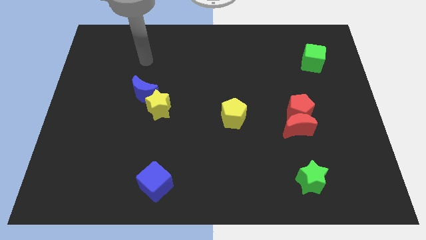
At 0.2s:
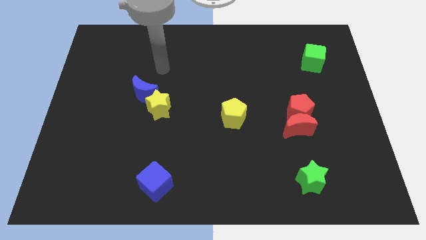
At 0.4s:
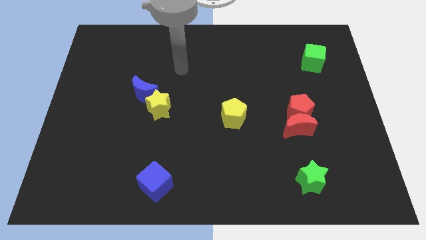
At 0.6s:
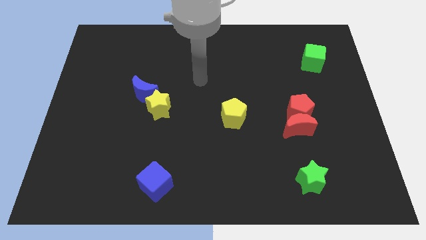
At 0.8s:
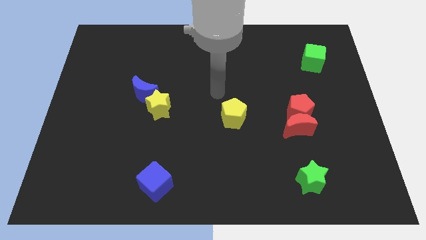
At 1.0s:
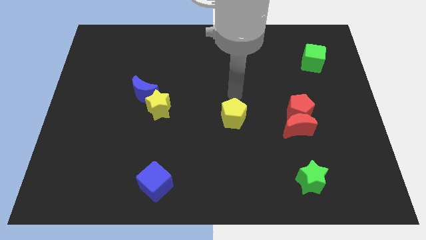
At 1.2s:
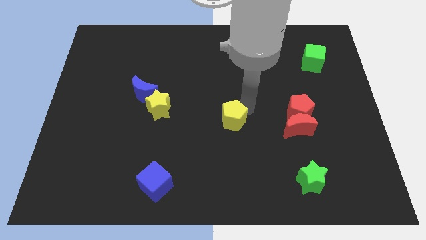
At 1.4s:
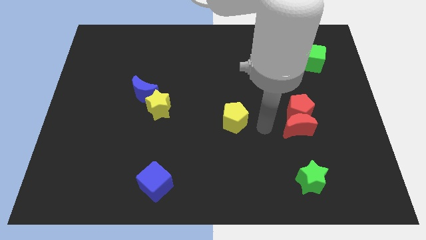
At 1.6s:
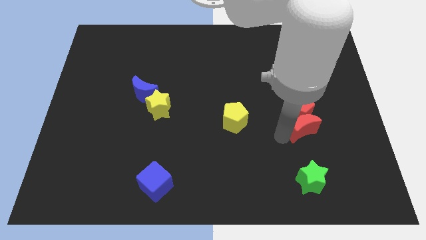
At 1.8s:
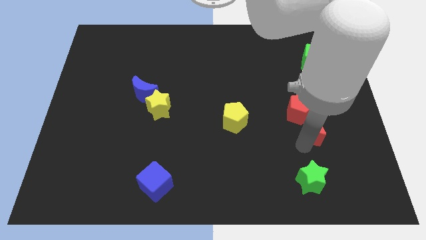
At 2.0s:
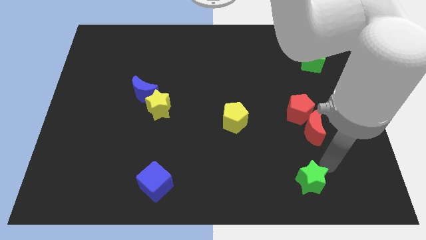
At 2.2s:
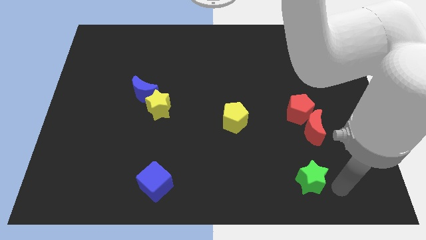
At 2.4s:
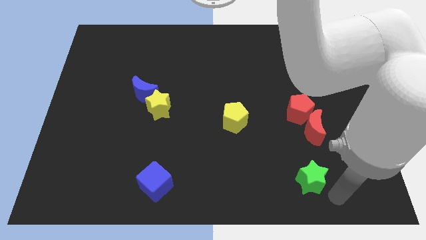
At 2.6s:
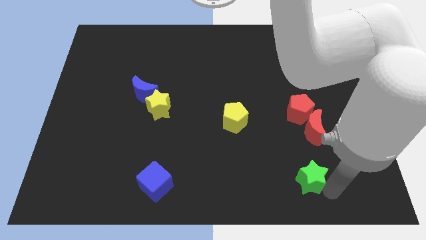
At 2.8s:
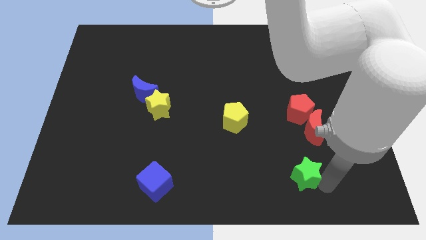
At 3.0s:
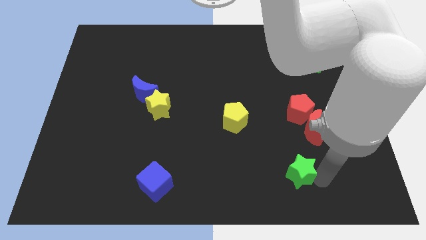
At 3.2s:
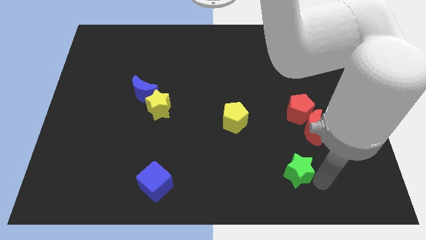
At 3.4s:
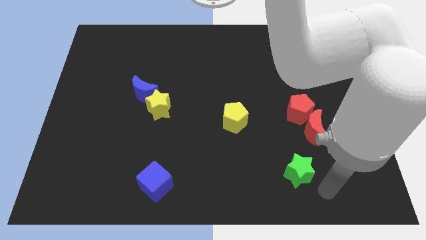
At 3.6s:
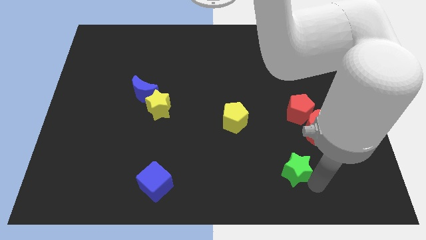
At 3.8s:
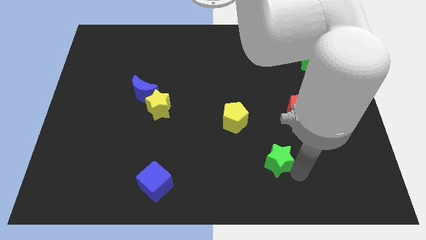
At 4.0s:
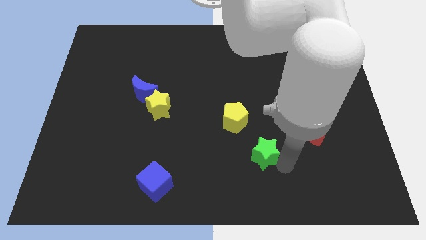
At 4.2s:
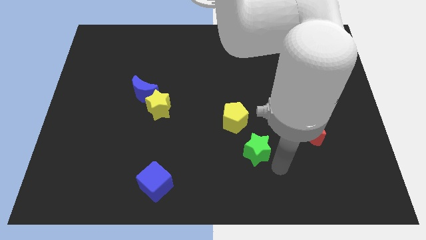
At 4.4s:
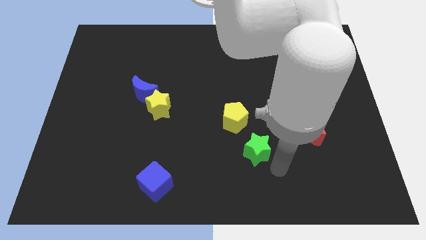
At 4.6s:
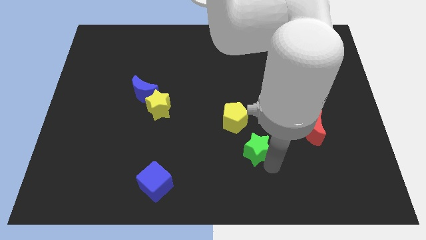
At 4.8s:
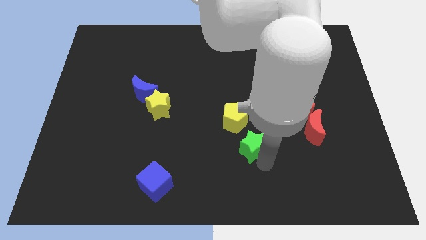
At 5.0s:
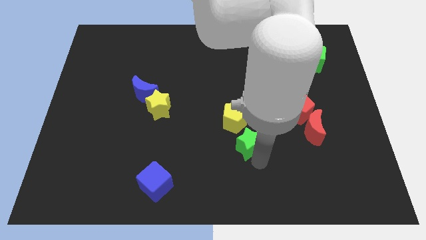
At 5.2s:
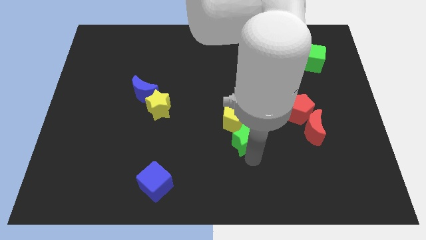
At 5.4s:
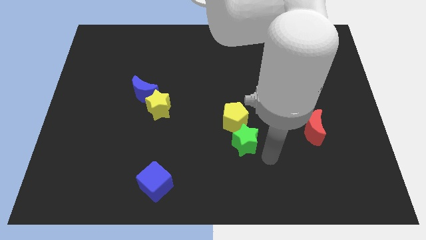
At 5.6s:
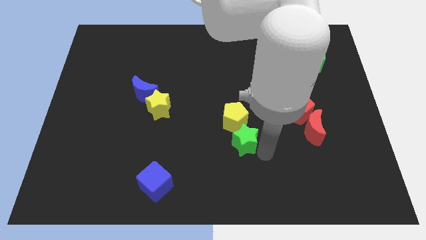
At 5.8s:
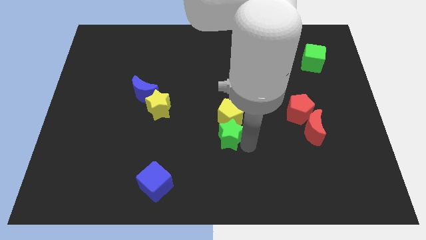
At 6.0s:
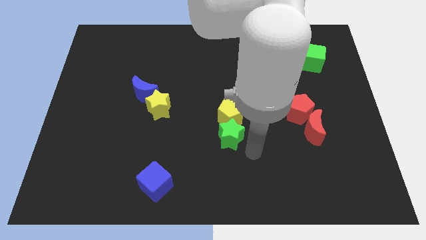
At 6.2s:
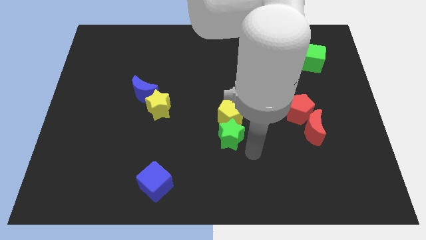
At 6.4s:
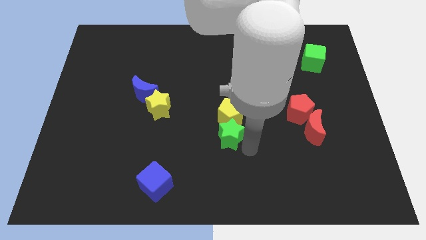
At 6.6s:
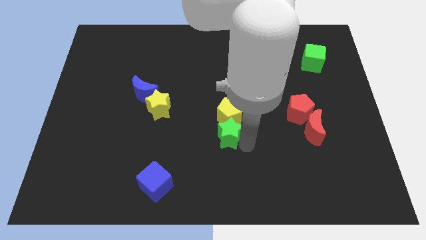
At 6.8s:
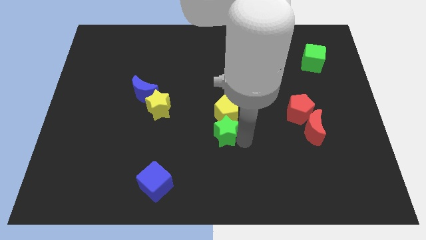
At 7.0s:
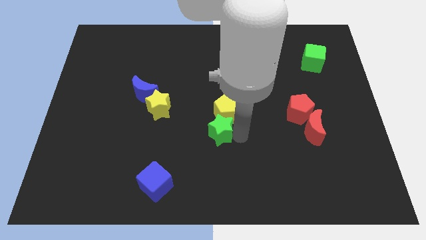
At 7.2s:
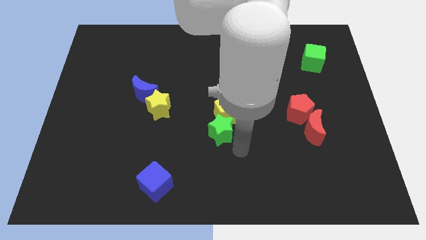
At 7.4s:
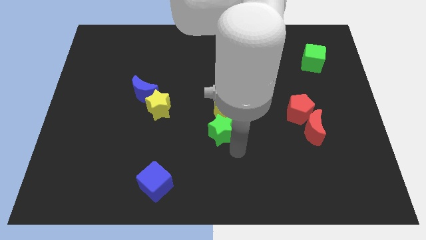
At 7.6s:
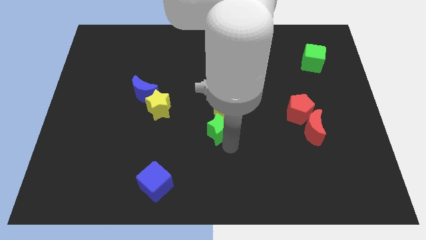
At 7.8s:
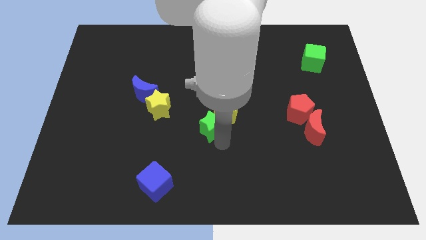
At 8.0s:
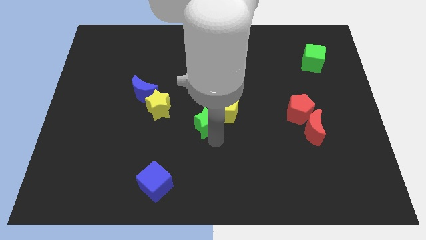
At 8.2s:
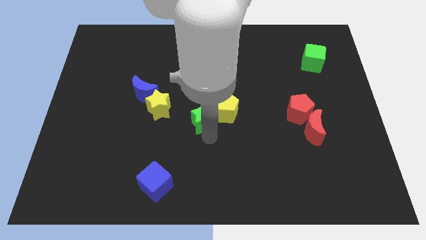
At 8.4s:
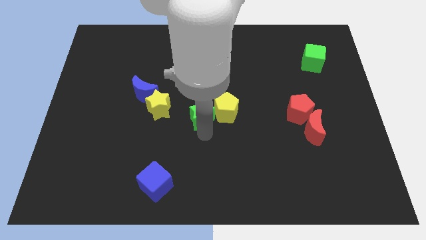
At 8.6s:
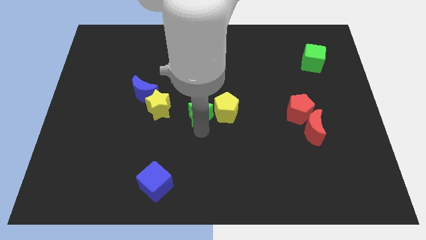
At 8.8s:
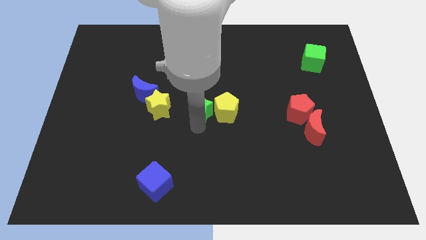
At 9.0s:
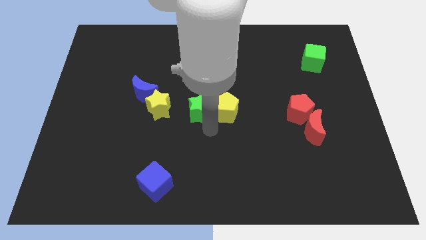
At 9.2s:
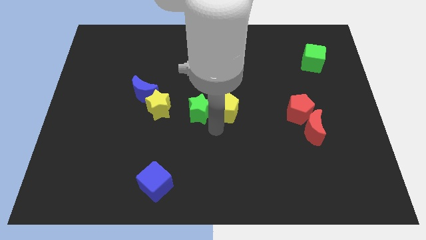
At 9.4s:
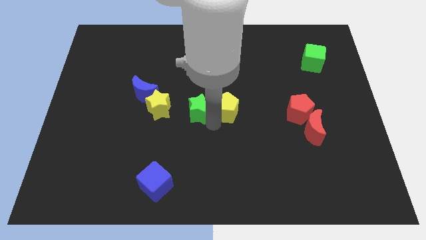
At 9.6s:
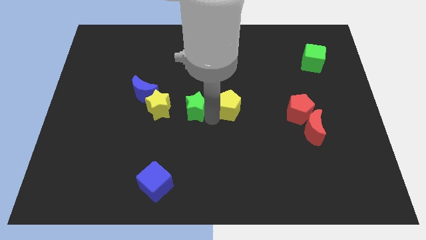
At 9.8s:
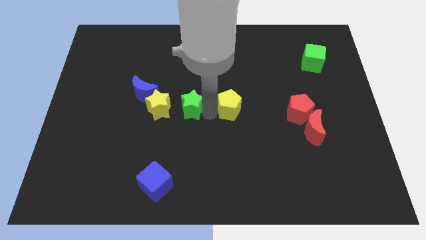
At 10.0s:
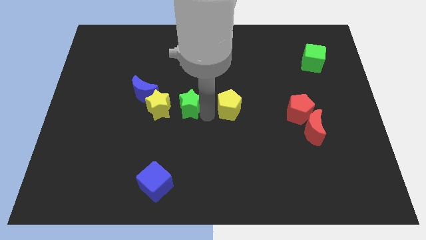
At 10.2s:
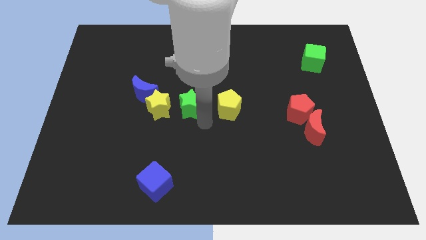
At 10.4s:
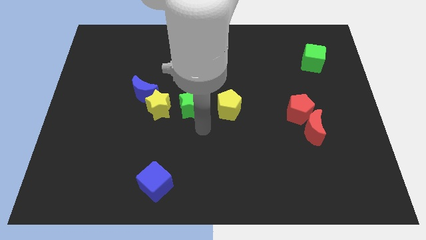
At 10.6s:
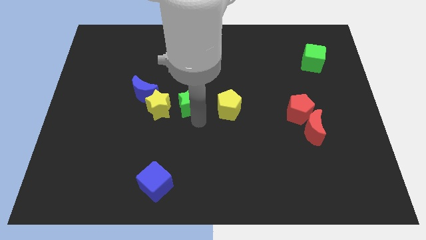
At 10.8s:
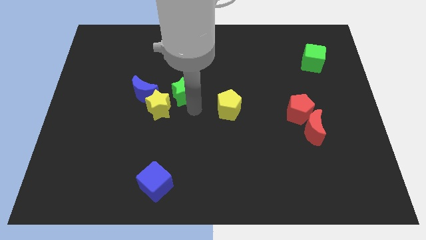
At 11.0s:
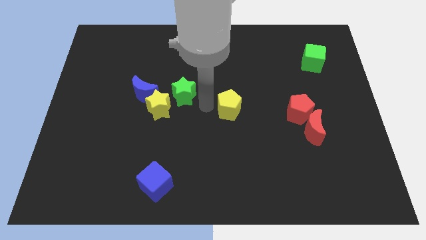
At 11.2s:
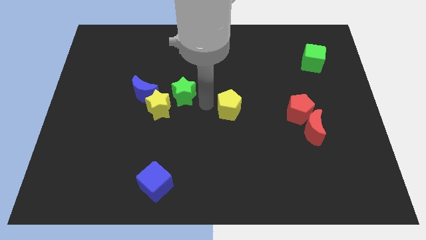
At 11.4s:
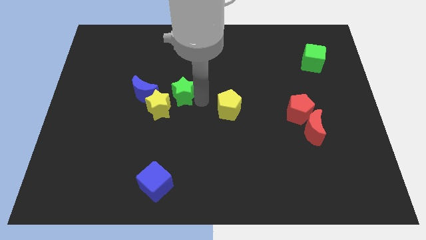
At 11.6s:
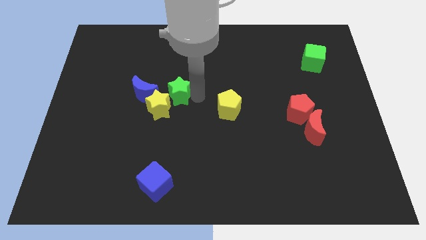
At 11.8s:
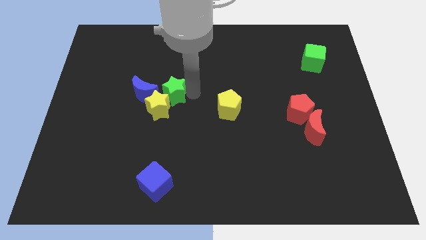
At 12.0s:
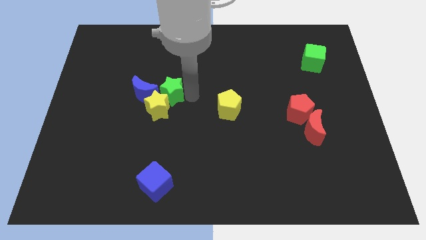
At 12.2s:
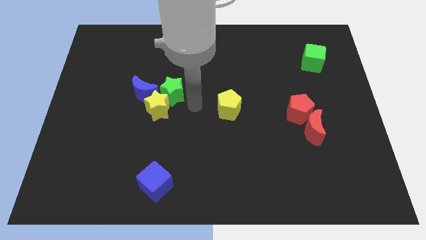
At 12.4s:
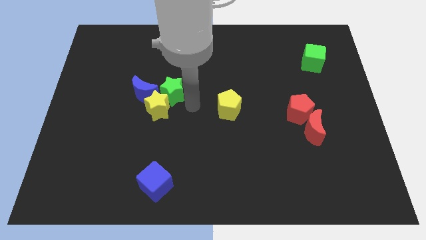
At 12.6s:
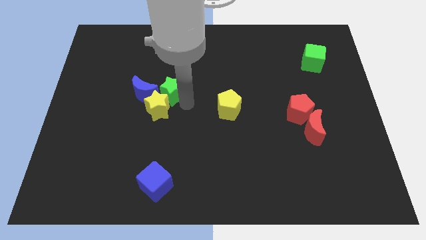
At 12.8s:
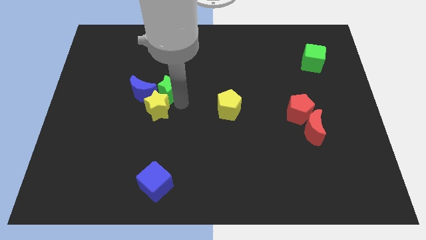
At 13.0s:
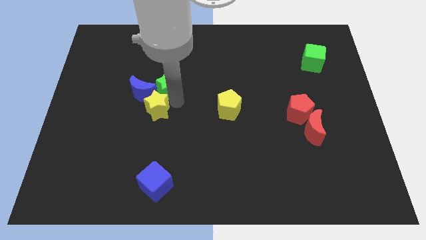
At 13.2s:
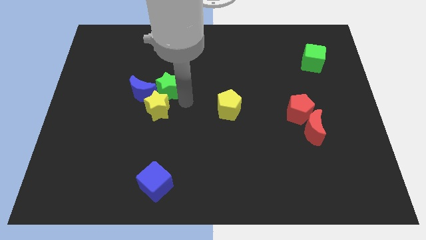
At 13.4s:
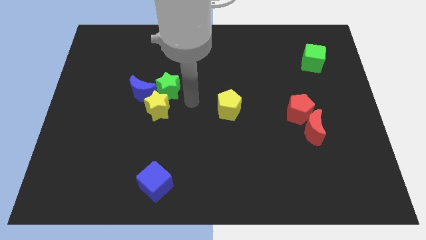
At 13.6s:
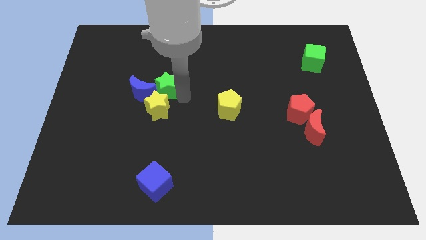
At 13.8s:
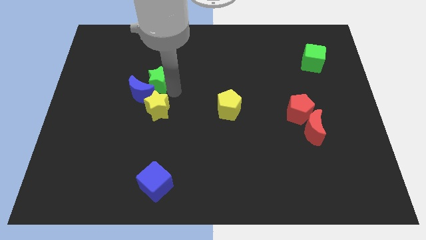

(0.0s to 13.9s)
put the green star to the top left side of the yellow star
